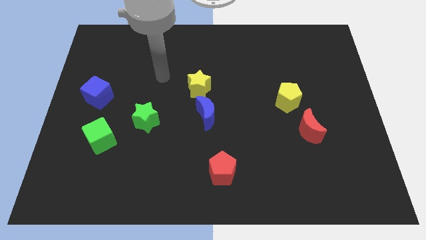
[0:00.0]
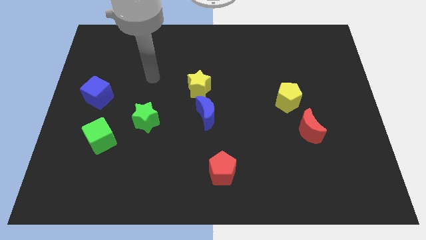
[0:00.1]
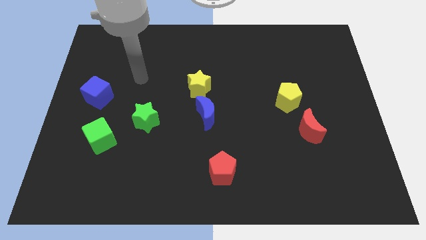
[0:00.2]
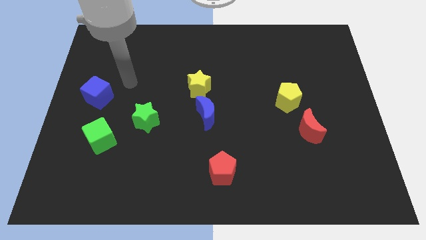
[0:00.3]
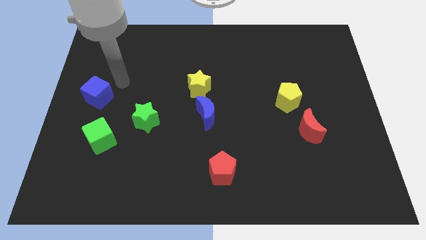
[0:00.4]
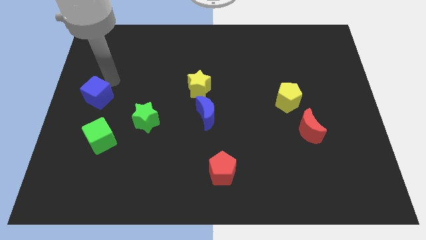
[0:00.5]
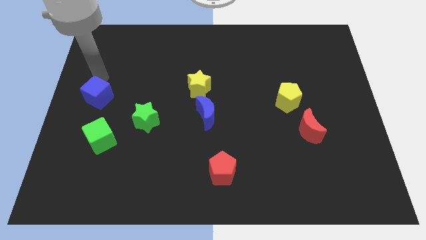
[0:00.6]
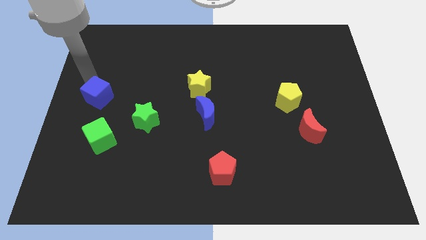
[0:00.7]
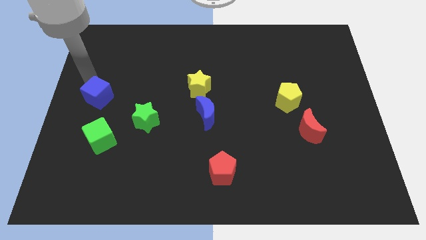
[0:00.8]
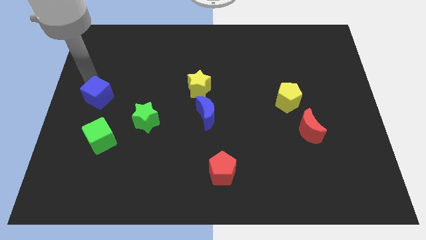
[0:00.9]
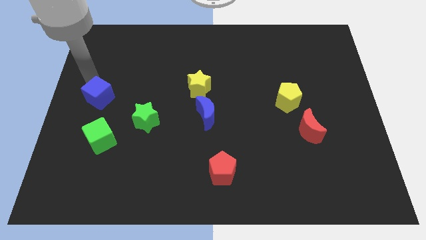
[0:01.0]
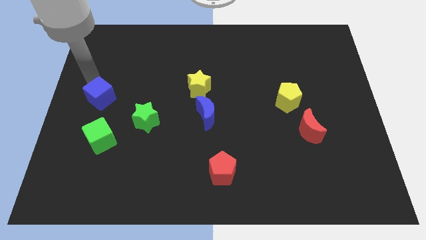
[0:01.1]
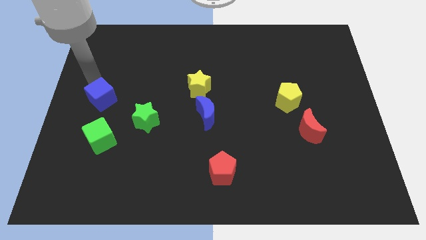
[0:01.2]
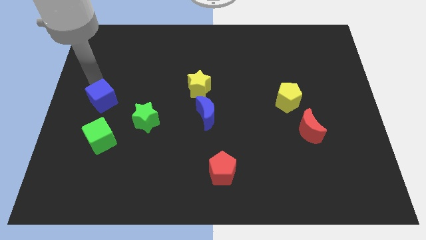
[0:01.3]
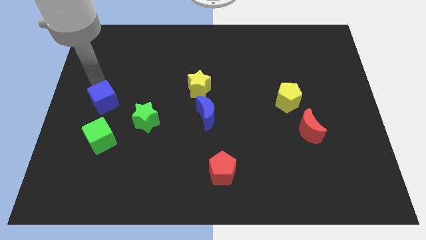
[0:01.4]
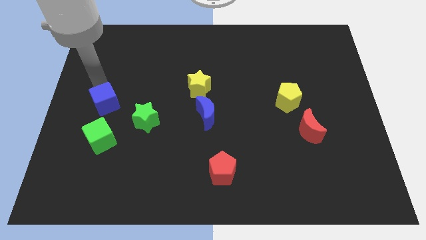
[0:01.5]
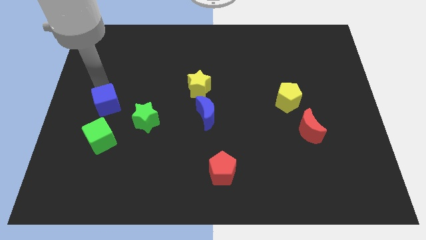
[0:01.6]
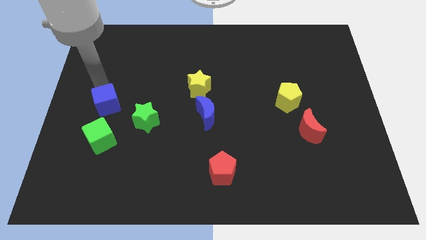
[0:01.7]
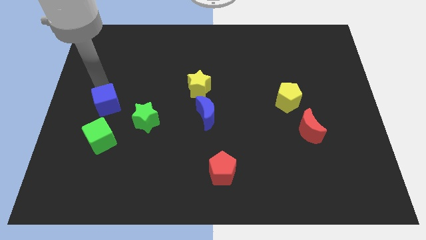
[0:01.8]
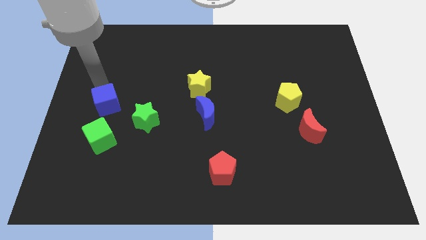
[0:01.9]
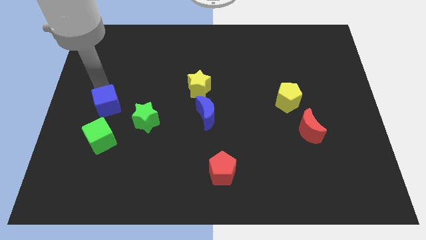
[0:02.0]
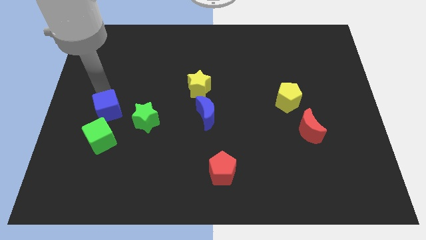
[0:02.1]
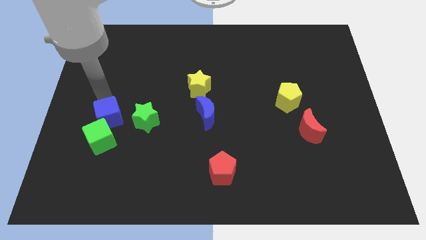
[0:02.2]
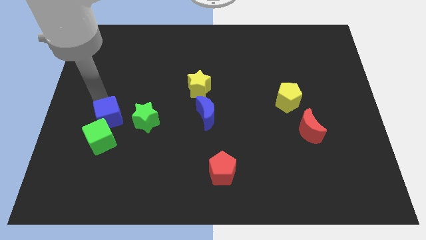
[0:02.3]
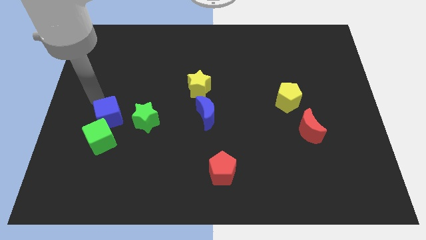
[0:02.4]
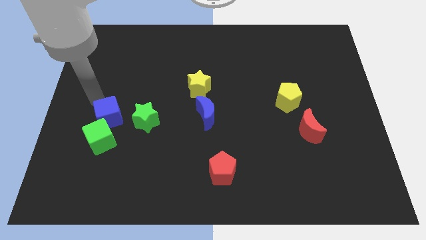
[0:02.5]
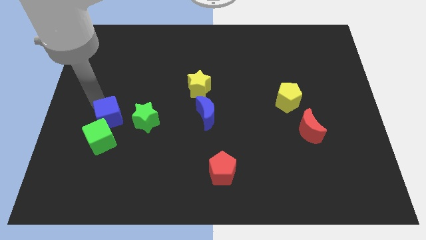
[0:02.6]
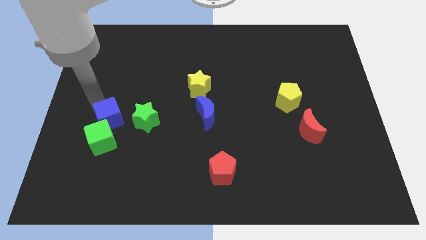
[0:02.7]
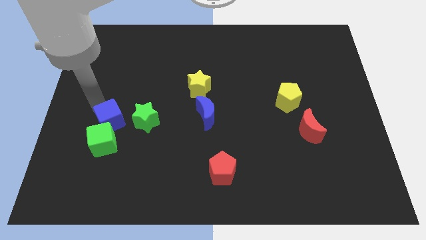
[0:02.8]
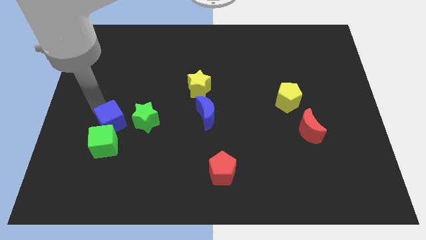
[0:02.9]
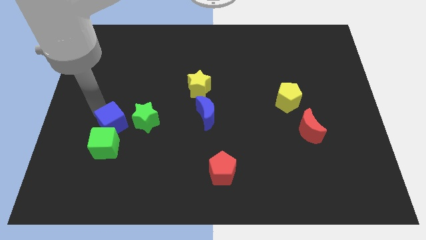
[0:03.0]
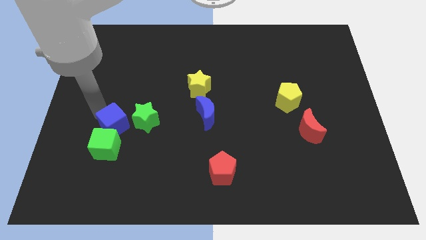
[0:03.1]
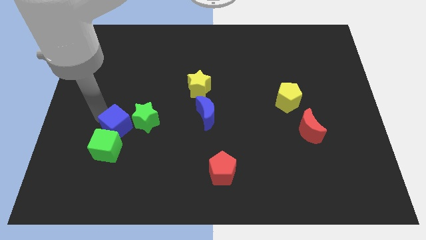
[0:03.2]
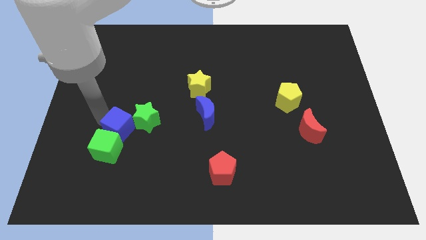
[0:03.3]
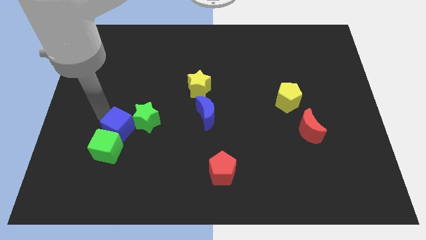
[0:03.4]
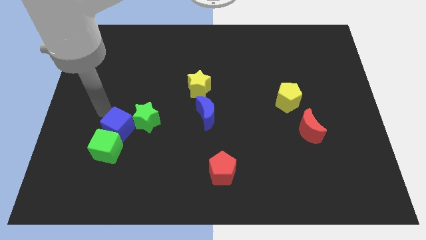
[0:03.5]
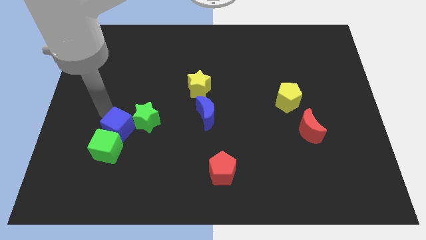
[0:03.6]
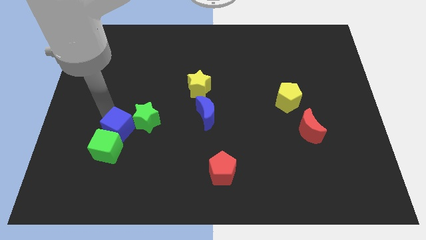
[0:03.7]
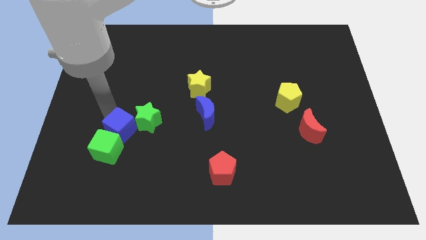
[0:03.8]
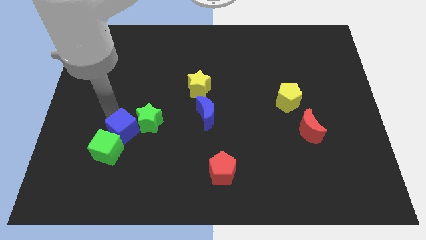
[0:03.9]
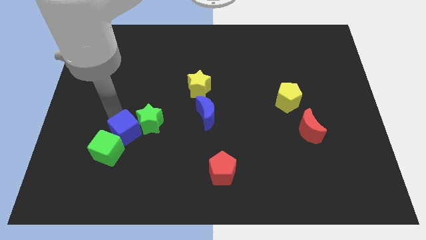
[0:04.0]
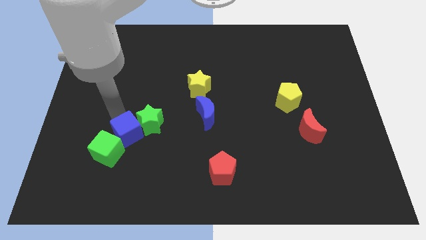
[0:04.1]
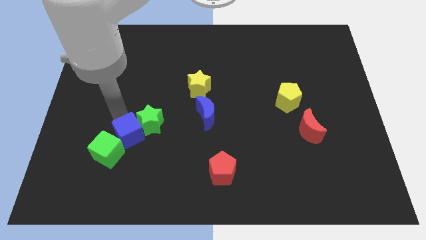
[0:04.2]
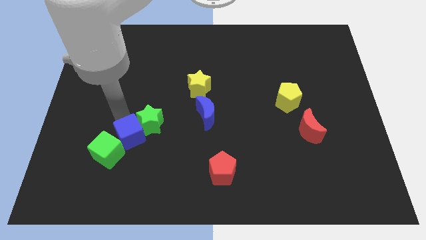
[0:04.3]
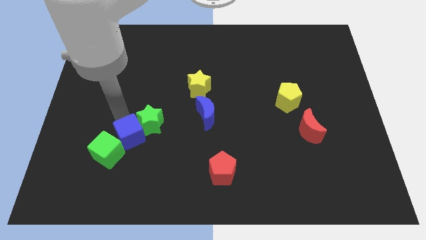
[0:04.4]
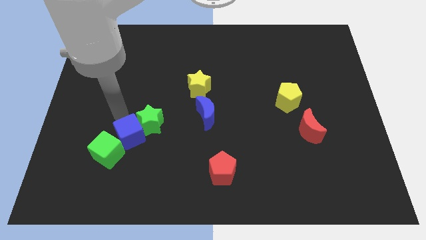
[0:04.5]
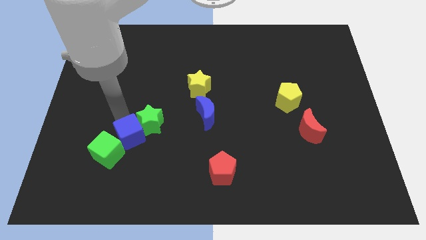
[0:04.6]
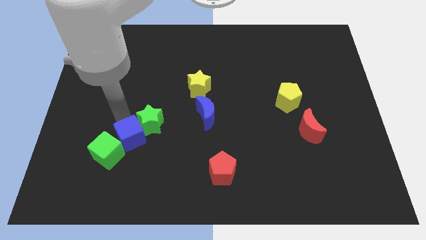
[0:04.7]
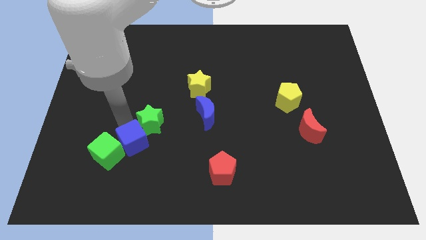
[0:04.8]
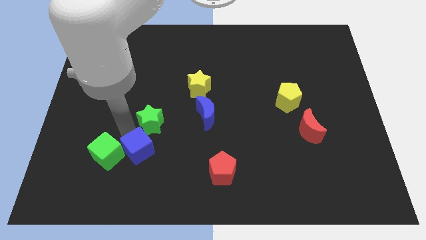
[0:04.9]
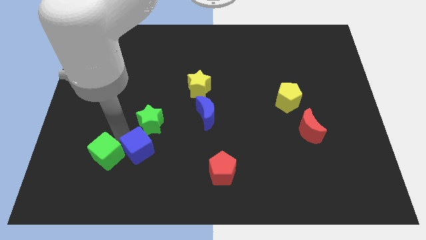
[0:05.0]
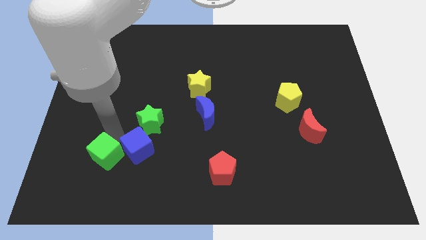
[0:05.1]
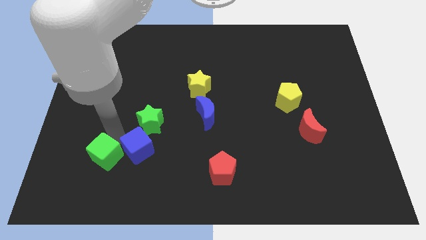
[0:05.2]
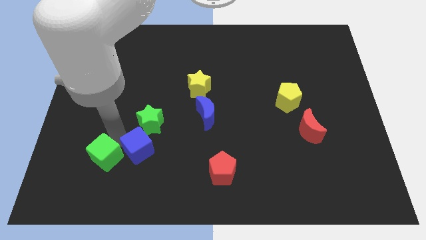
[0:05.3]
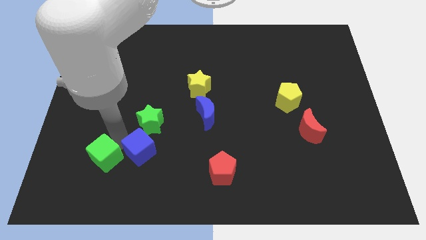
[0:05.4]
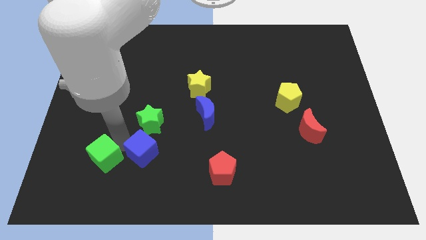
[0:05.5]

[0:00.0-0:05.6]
slide the blue cube down and then to the right

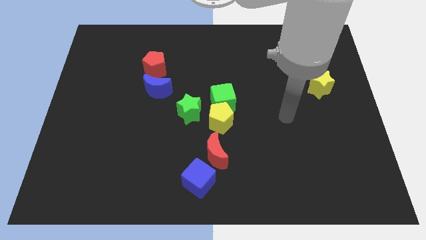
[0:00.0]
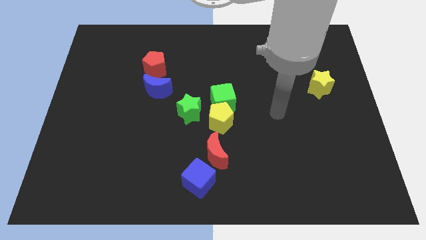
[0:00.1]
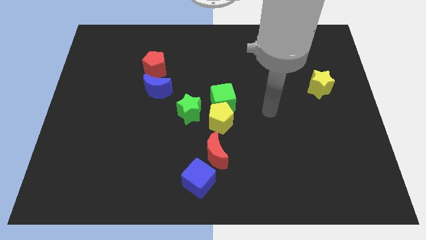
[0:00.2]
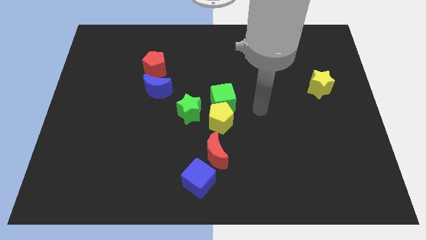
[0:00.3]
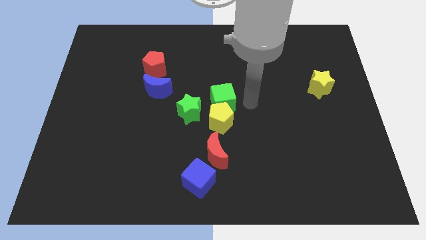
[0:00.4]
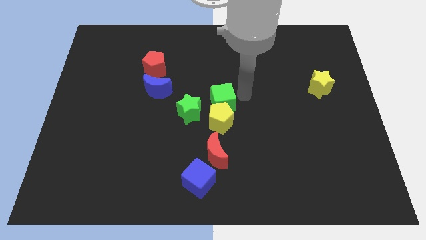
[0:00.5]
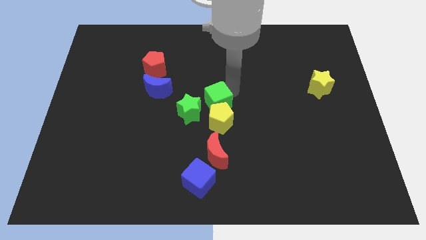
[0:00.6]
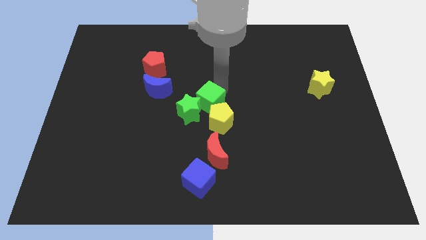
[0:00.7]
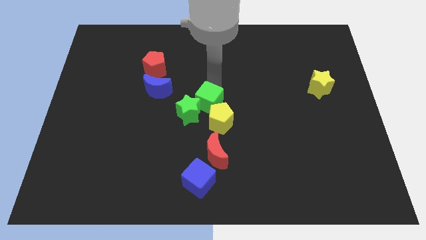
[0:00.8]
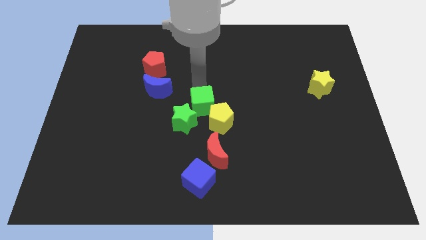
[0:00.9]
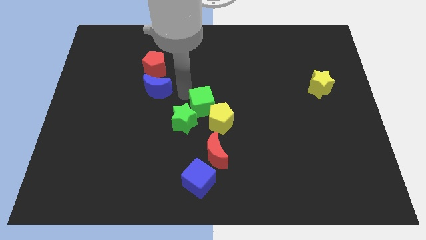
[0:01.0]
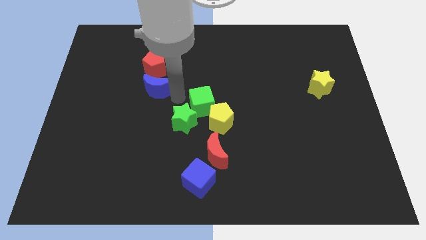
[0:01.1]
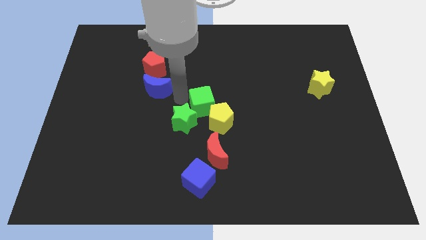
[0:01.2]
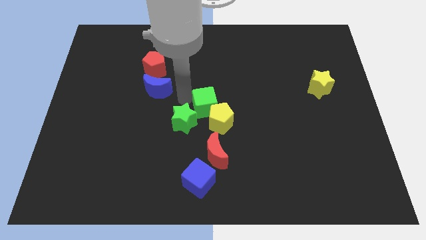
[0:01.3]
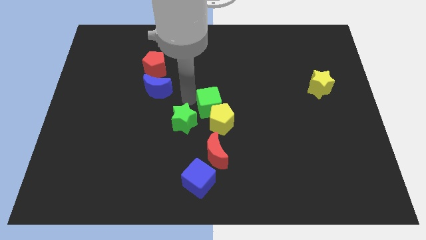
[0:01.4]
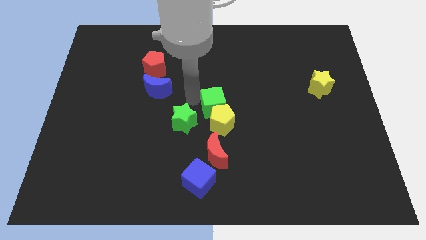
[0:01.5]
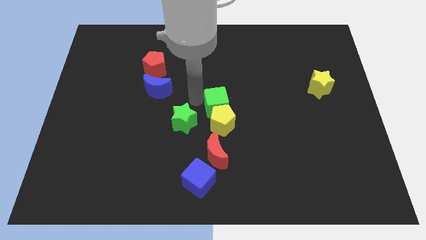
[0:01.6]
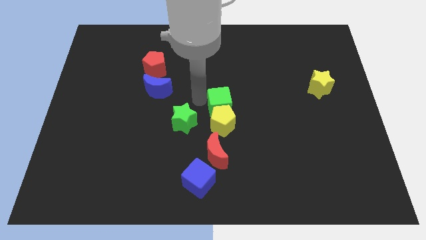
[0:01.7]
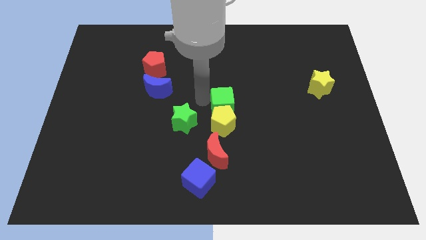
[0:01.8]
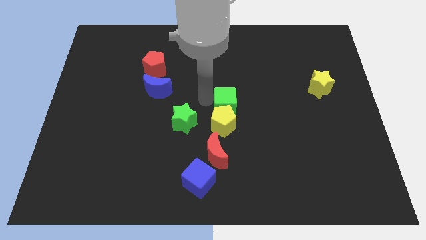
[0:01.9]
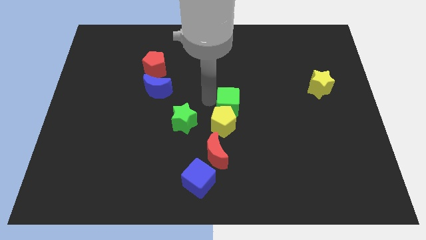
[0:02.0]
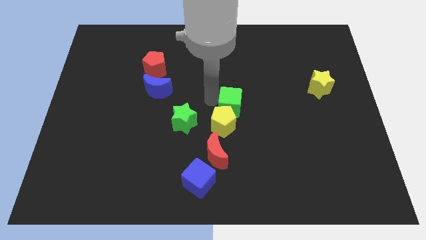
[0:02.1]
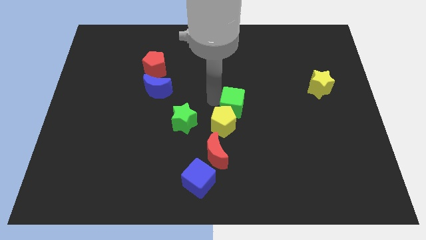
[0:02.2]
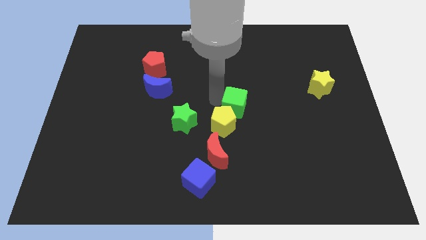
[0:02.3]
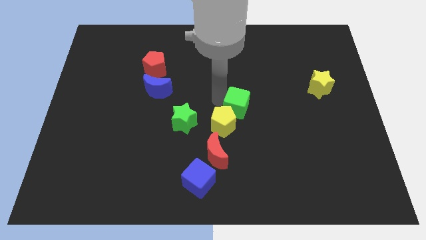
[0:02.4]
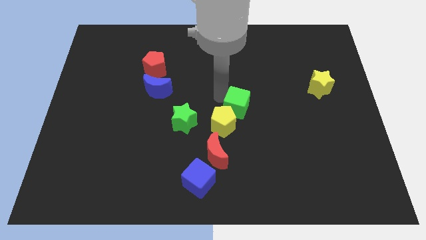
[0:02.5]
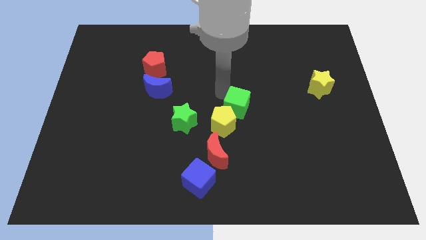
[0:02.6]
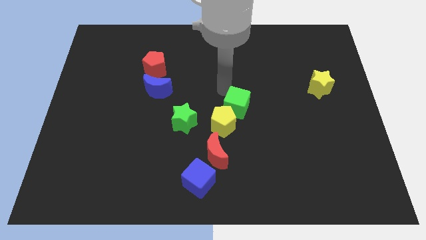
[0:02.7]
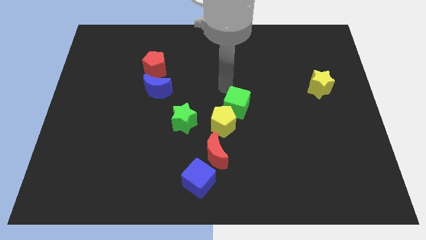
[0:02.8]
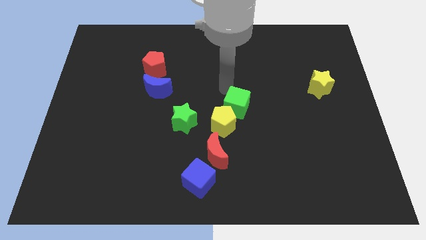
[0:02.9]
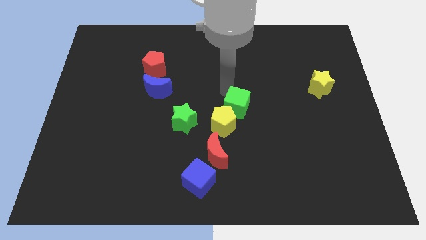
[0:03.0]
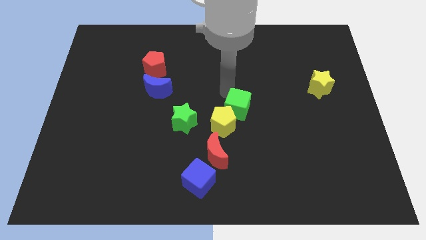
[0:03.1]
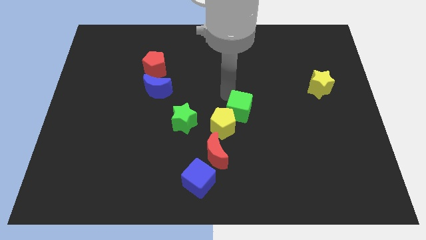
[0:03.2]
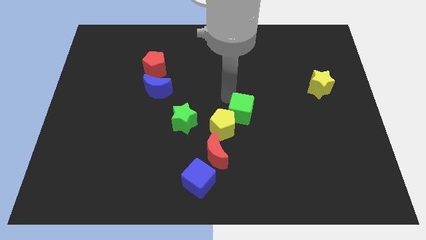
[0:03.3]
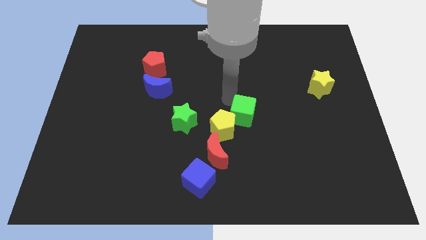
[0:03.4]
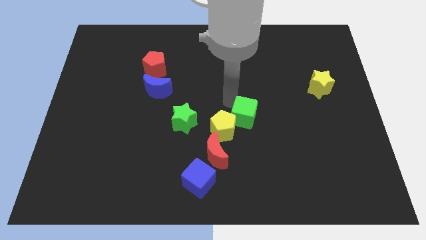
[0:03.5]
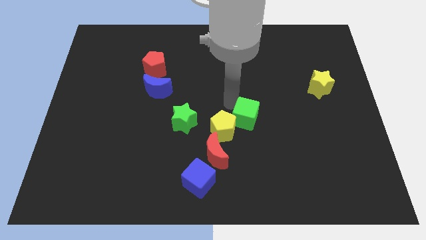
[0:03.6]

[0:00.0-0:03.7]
slide the green cube somewhat diagonally down and right
